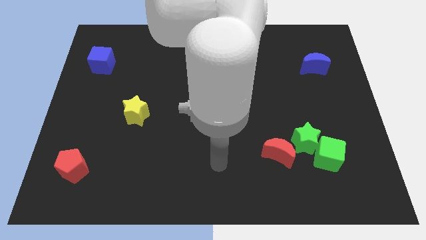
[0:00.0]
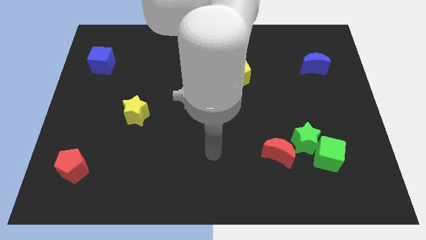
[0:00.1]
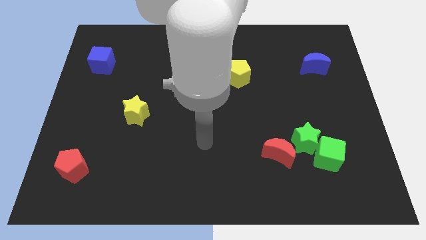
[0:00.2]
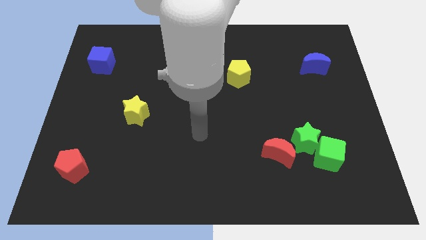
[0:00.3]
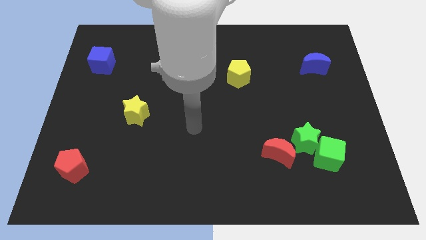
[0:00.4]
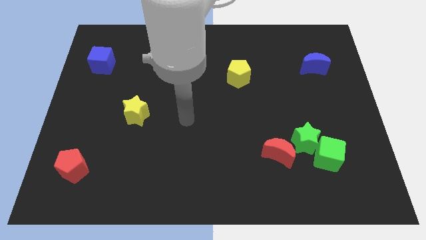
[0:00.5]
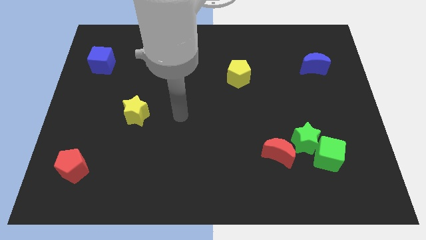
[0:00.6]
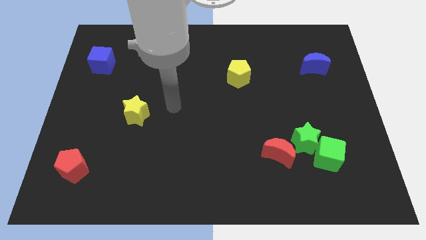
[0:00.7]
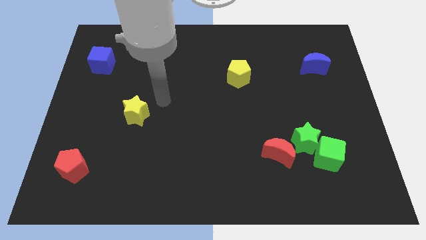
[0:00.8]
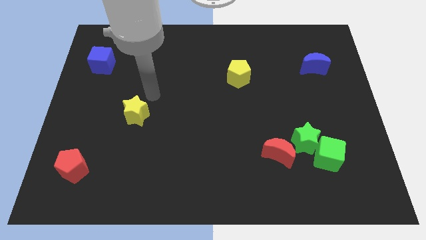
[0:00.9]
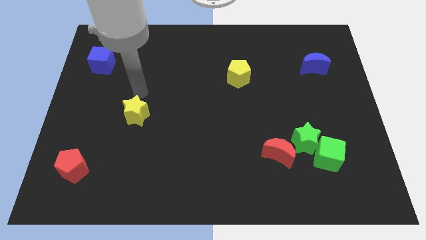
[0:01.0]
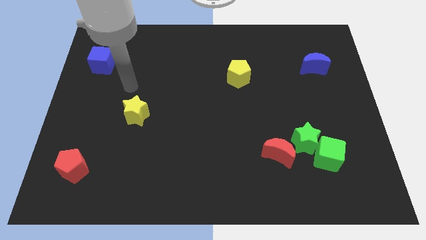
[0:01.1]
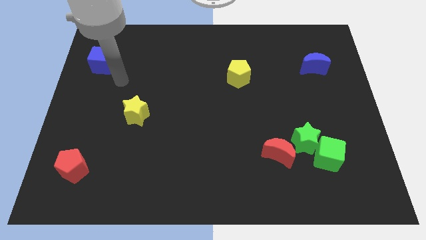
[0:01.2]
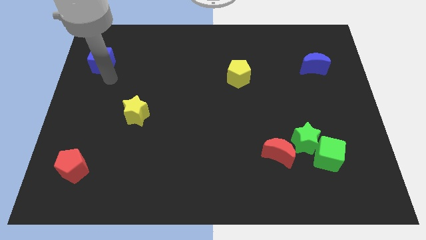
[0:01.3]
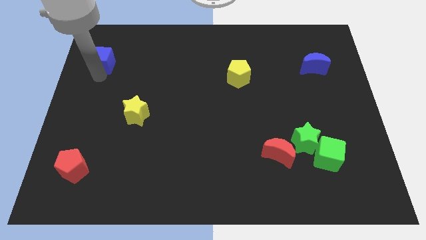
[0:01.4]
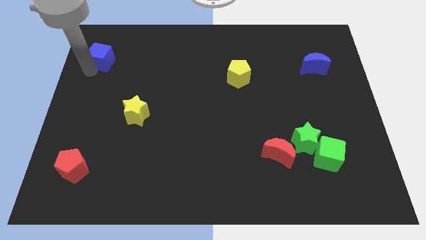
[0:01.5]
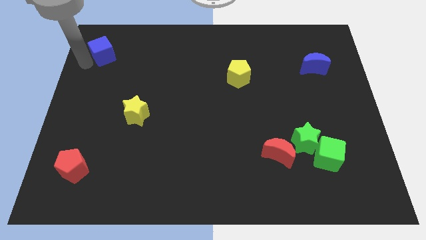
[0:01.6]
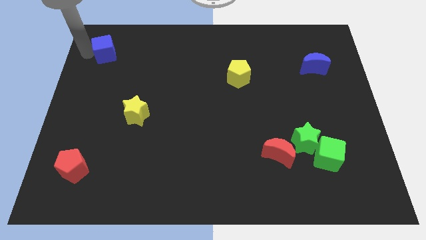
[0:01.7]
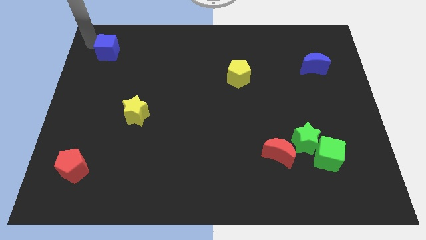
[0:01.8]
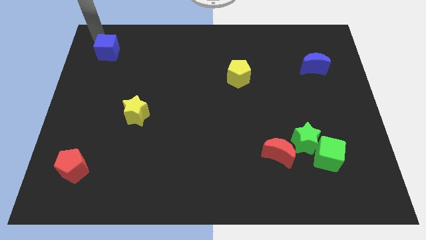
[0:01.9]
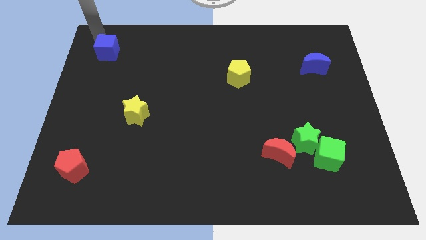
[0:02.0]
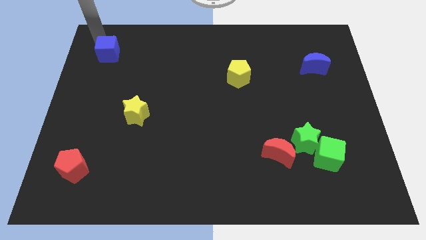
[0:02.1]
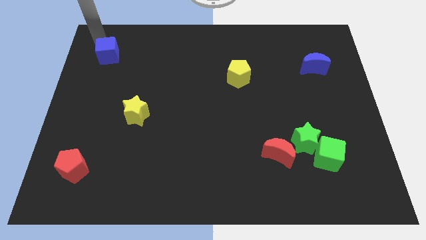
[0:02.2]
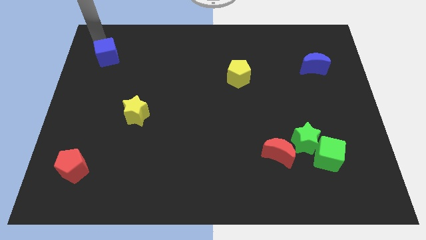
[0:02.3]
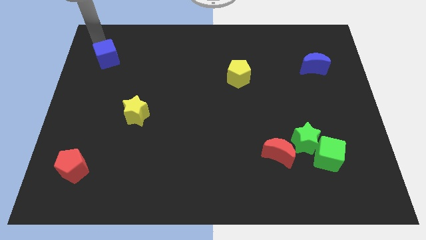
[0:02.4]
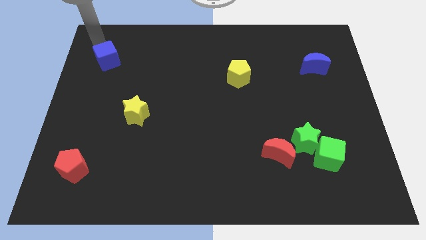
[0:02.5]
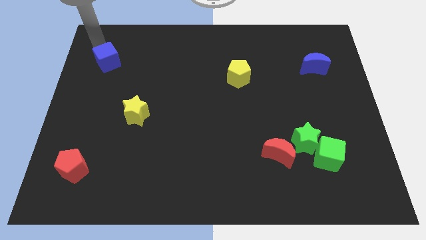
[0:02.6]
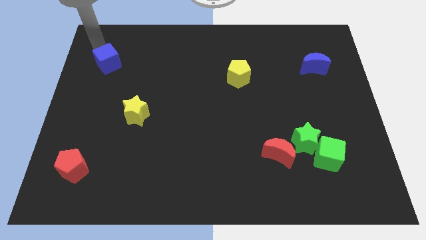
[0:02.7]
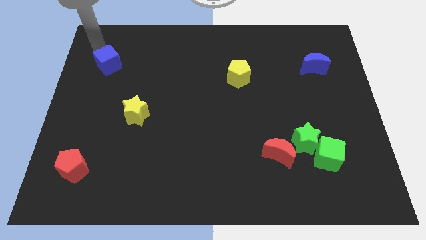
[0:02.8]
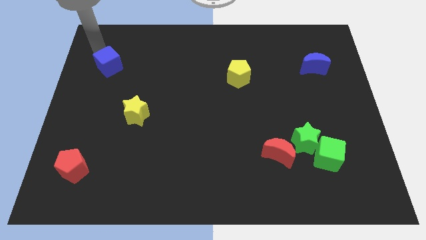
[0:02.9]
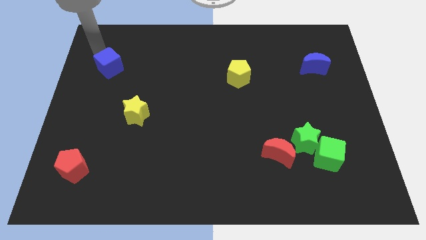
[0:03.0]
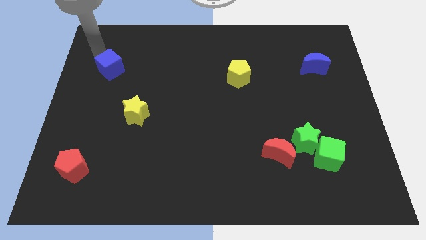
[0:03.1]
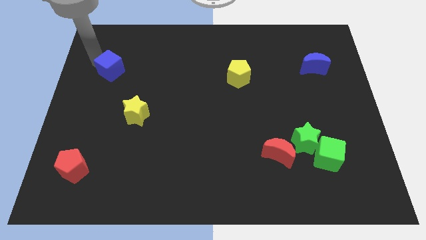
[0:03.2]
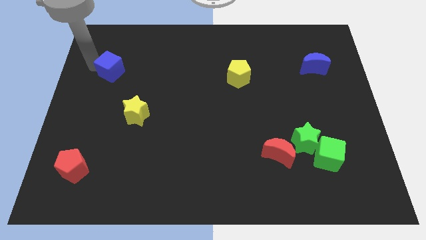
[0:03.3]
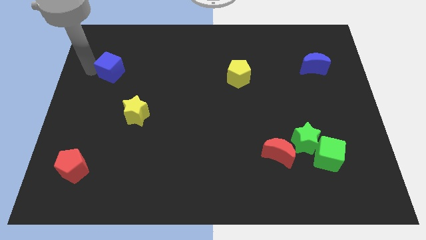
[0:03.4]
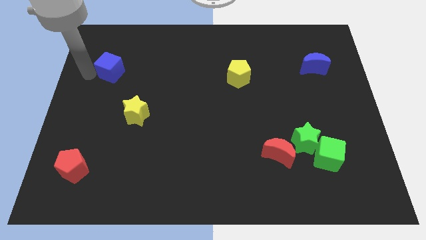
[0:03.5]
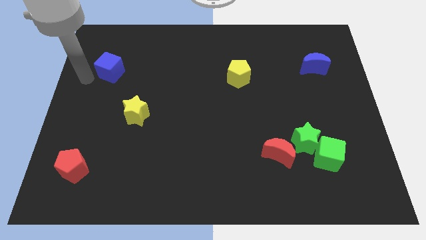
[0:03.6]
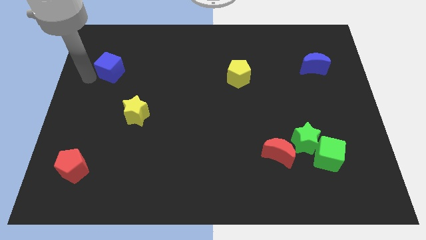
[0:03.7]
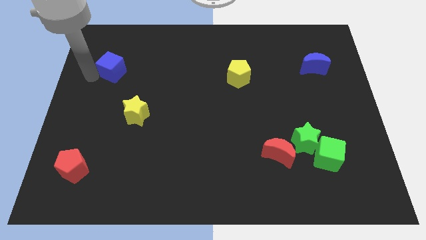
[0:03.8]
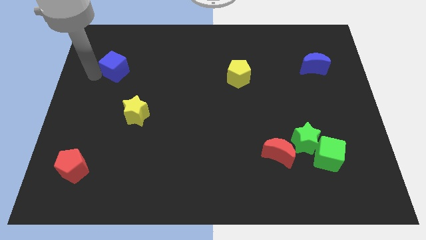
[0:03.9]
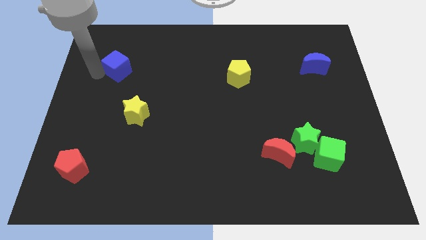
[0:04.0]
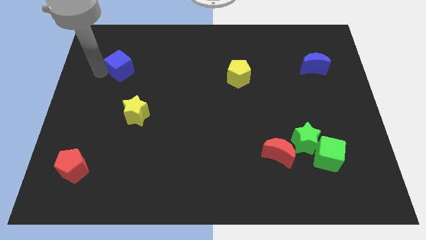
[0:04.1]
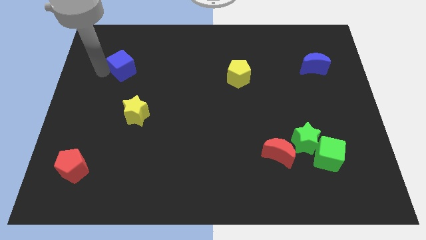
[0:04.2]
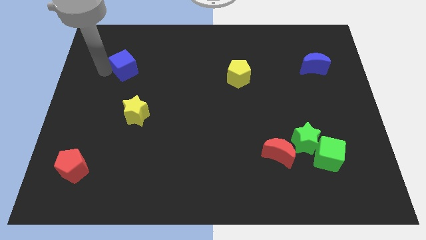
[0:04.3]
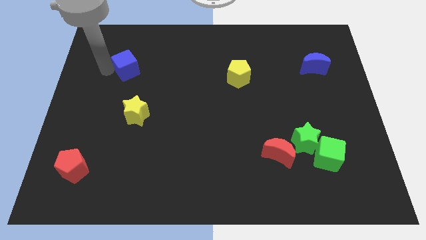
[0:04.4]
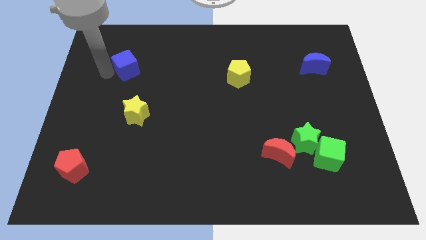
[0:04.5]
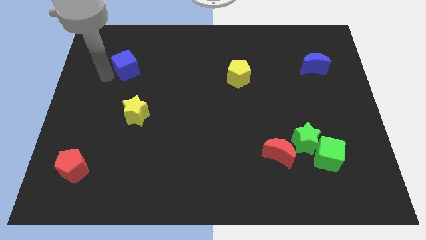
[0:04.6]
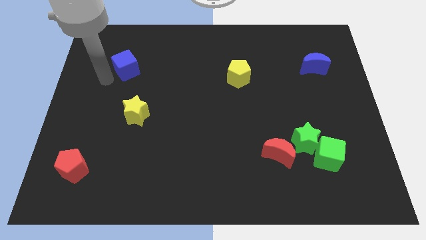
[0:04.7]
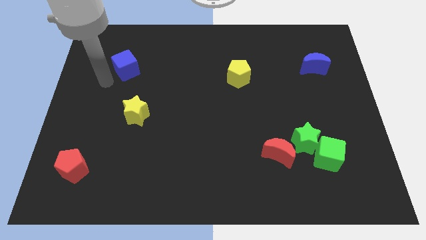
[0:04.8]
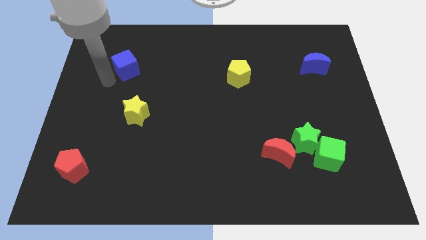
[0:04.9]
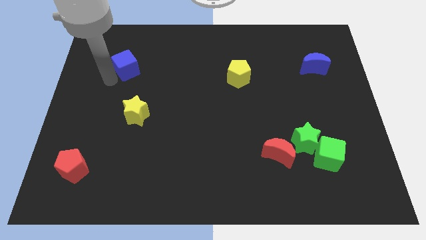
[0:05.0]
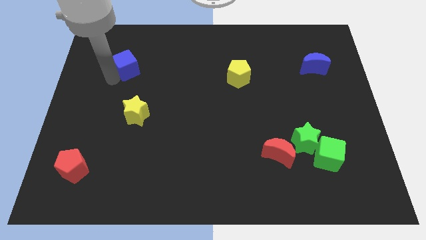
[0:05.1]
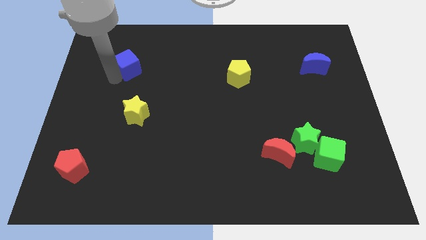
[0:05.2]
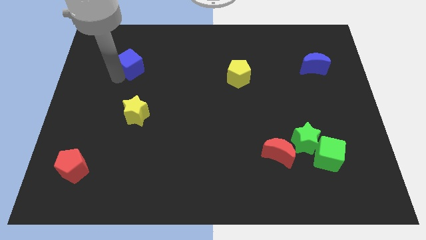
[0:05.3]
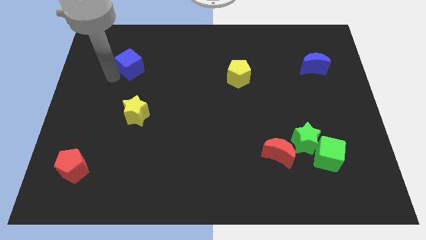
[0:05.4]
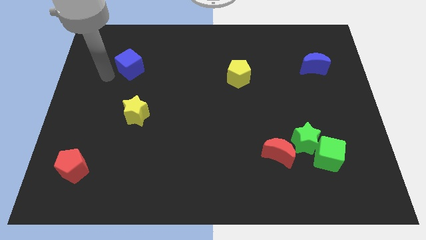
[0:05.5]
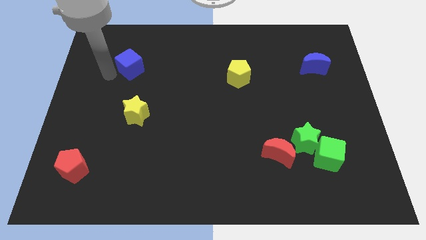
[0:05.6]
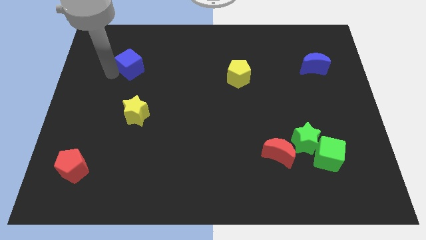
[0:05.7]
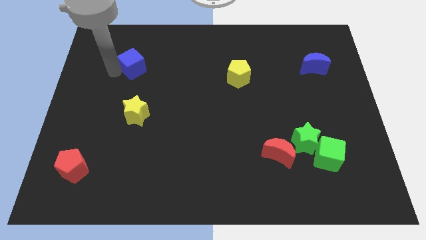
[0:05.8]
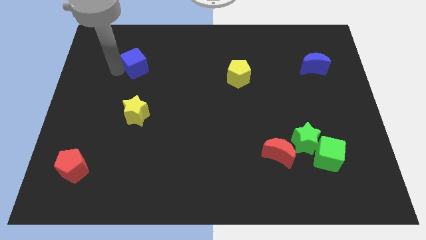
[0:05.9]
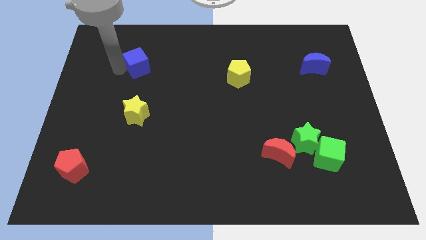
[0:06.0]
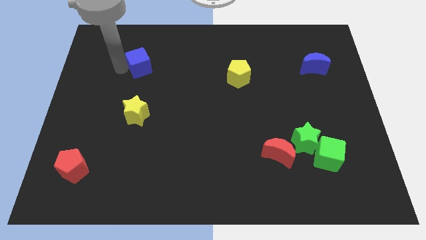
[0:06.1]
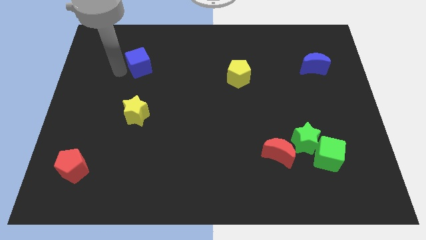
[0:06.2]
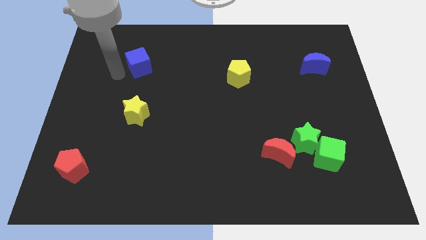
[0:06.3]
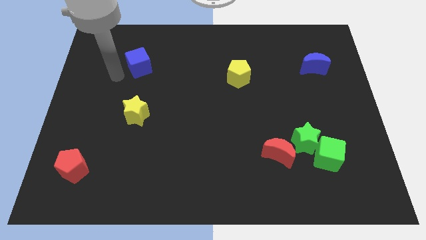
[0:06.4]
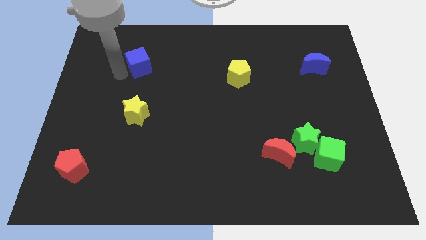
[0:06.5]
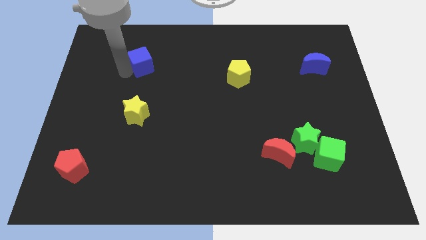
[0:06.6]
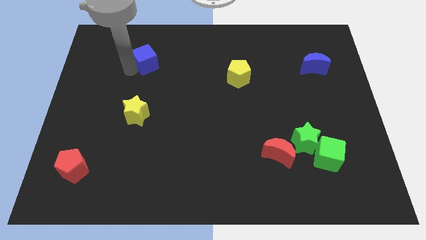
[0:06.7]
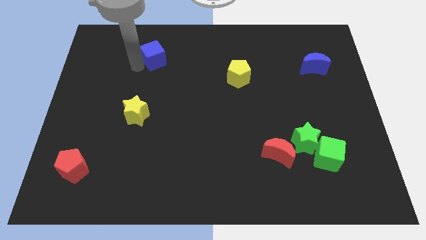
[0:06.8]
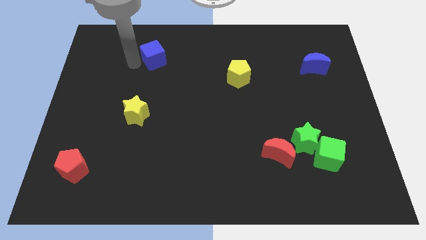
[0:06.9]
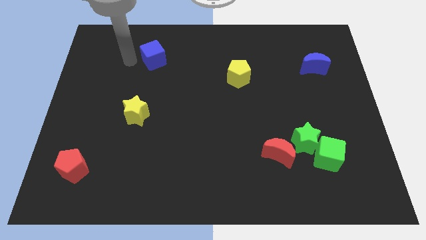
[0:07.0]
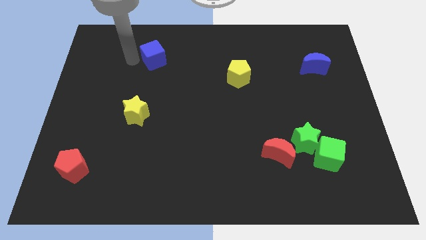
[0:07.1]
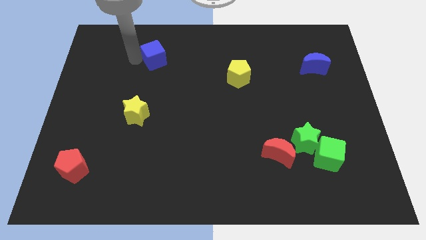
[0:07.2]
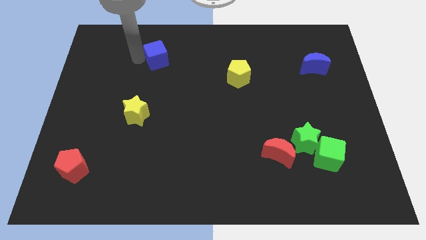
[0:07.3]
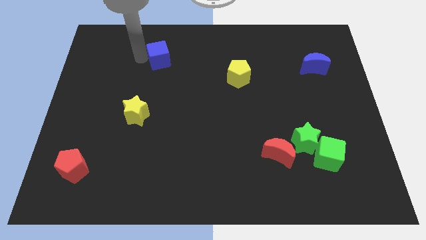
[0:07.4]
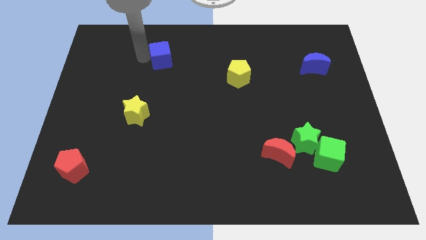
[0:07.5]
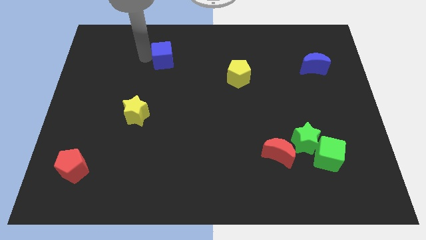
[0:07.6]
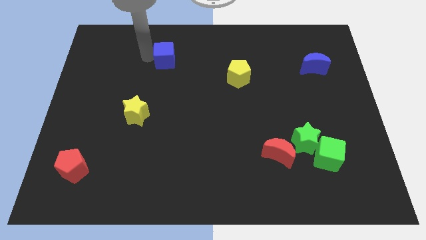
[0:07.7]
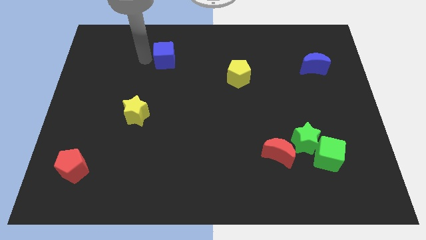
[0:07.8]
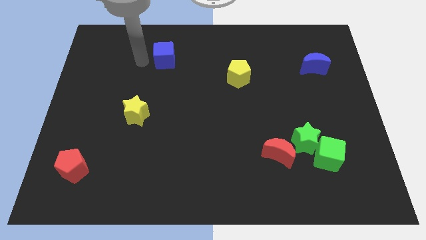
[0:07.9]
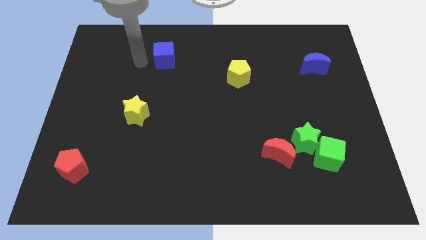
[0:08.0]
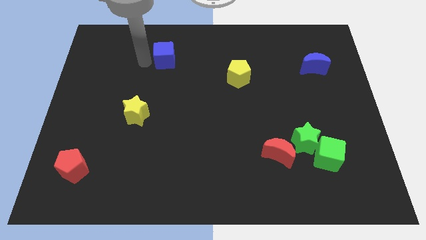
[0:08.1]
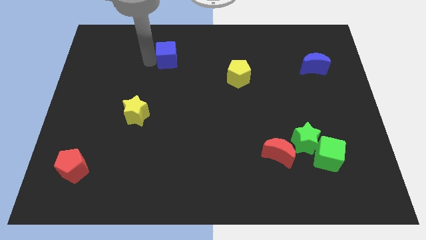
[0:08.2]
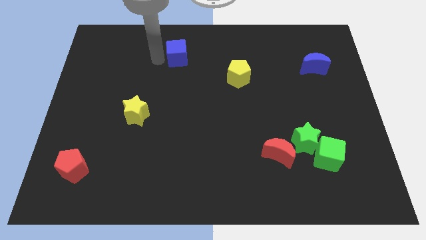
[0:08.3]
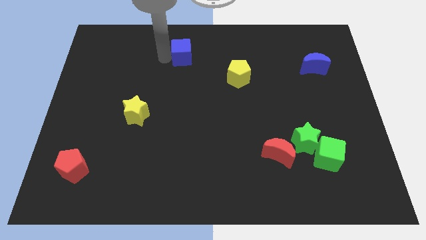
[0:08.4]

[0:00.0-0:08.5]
move the blue cube to the right
